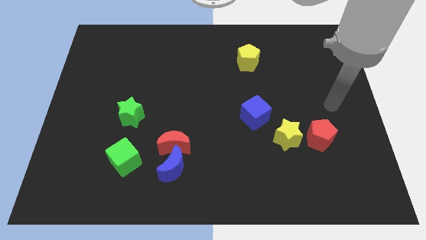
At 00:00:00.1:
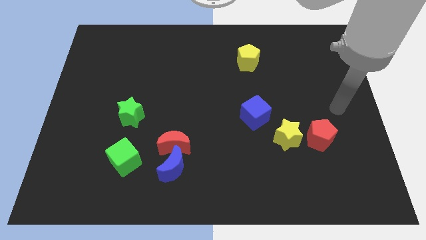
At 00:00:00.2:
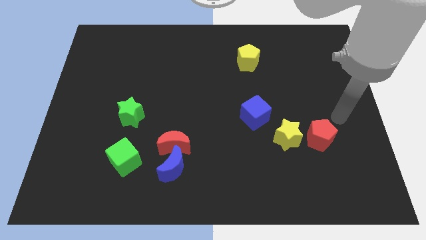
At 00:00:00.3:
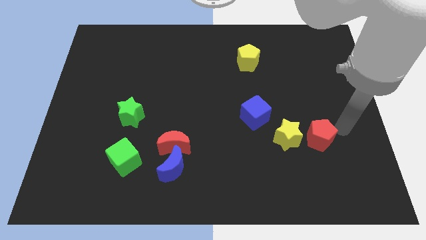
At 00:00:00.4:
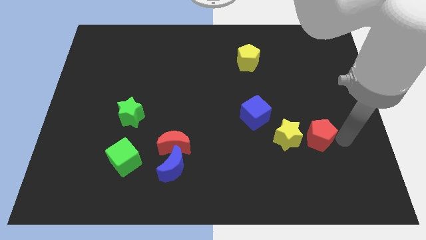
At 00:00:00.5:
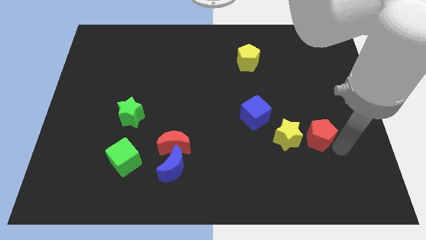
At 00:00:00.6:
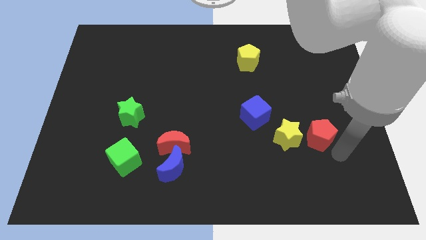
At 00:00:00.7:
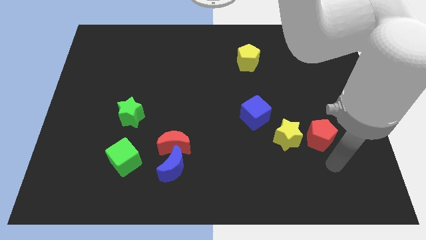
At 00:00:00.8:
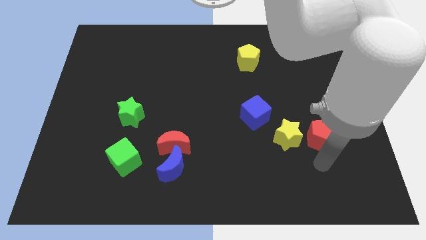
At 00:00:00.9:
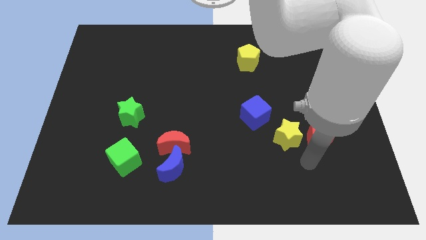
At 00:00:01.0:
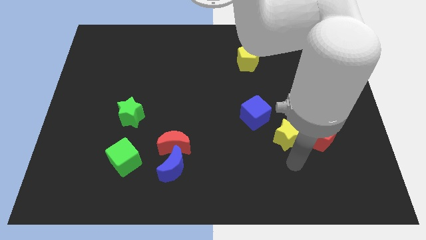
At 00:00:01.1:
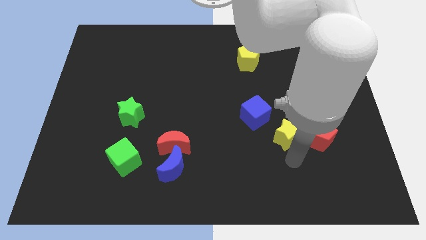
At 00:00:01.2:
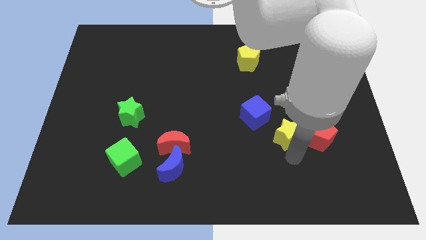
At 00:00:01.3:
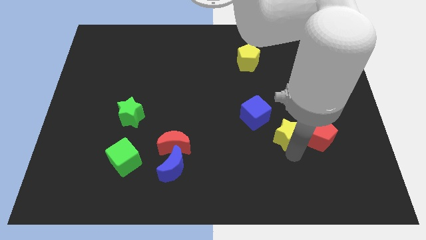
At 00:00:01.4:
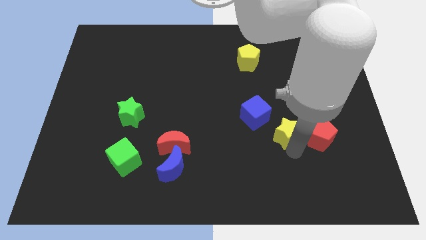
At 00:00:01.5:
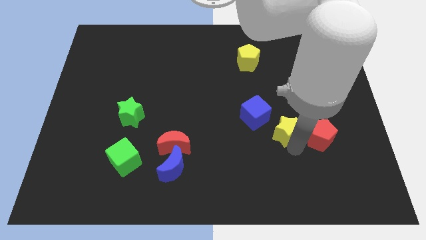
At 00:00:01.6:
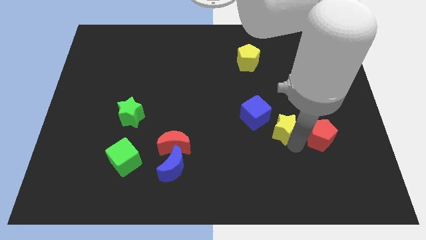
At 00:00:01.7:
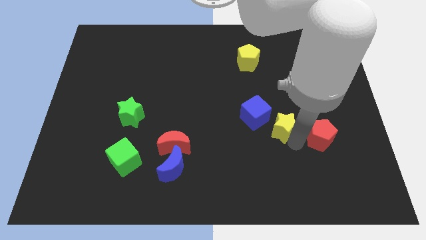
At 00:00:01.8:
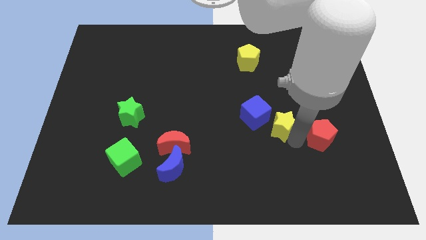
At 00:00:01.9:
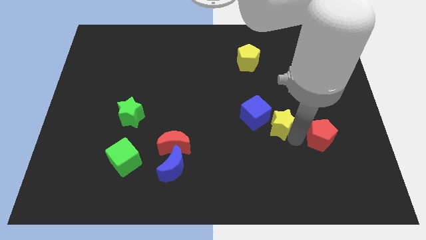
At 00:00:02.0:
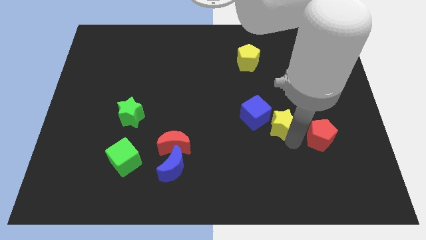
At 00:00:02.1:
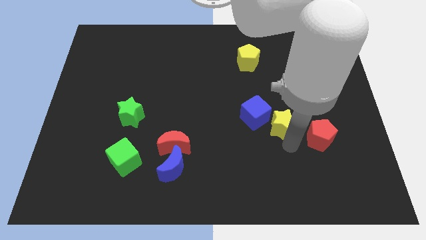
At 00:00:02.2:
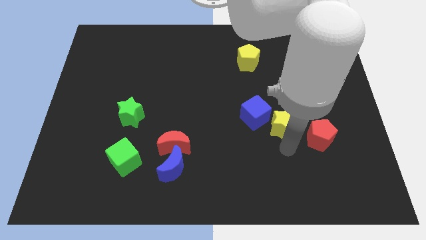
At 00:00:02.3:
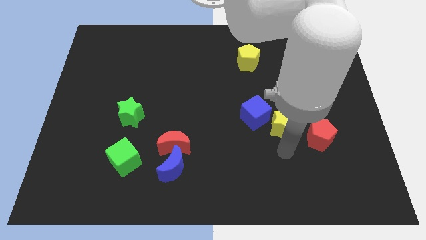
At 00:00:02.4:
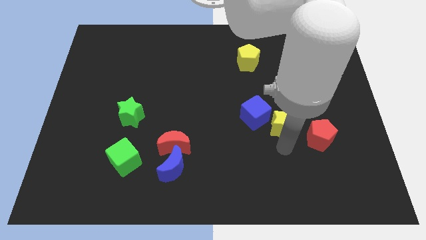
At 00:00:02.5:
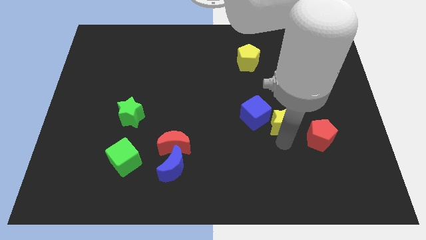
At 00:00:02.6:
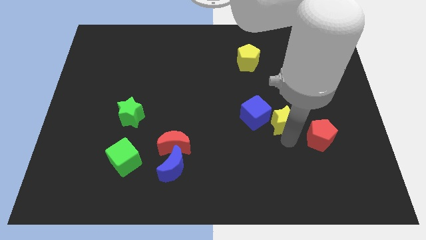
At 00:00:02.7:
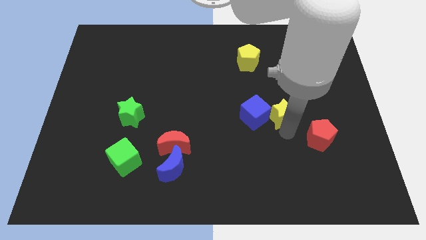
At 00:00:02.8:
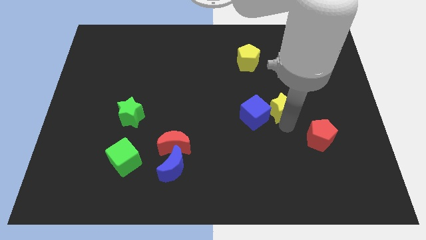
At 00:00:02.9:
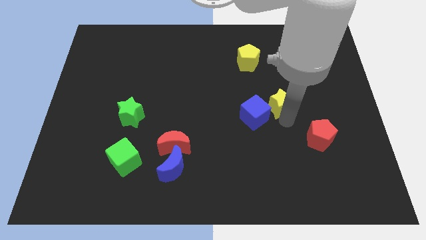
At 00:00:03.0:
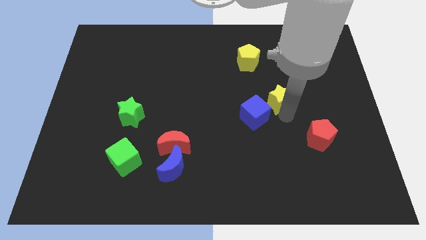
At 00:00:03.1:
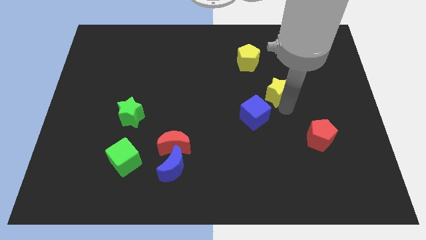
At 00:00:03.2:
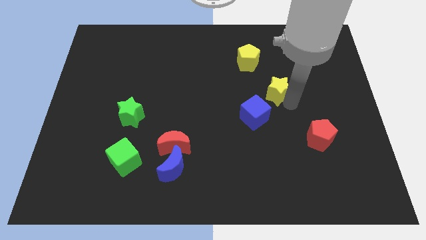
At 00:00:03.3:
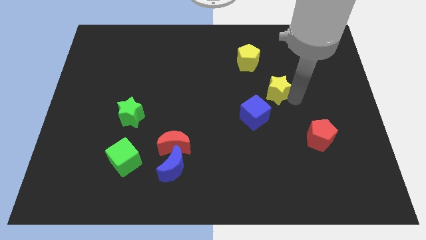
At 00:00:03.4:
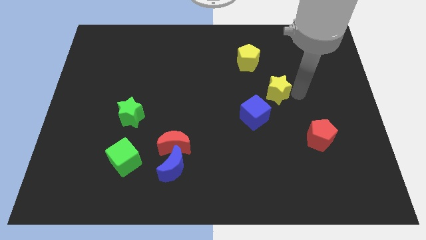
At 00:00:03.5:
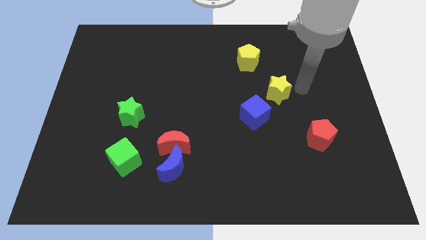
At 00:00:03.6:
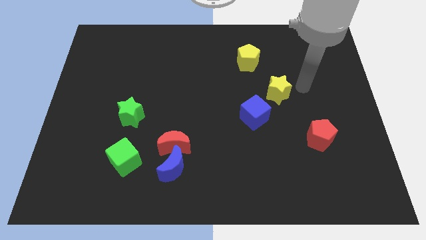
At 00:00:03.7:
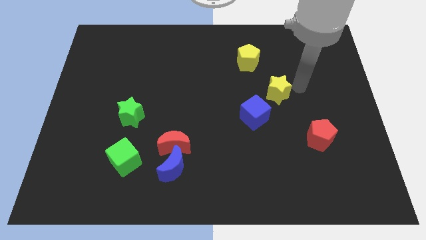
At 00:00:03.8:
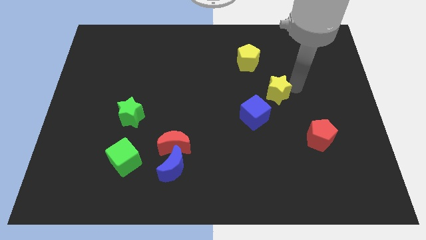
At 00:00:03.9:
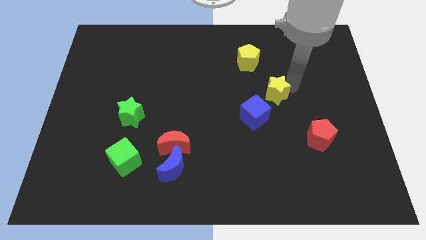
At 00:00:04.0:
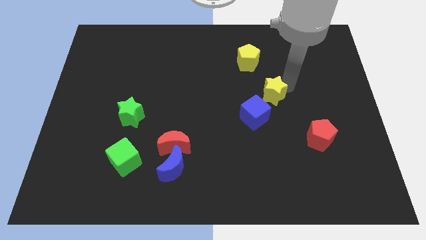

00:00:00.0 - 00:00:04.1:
slightly push the yellow star up and left

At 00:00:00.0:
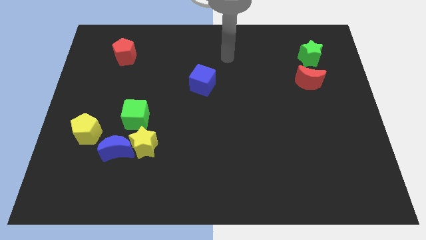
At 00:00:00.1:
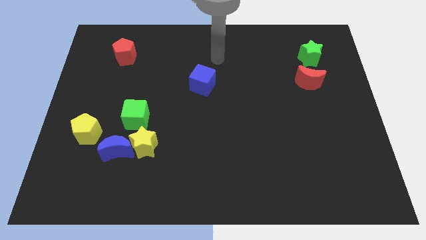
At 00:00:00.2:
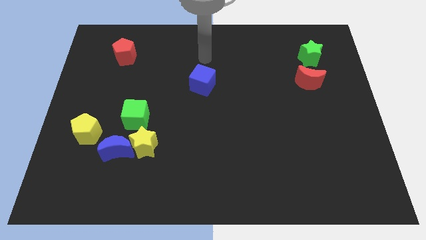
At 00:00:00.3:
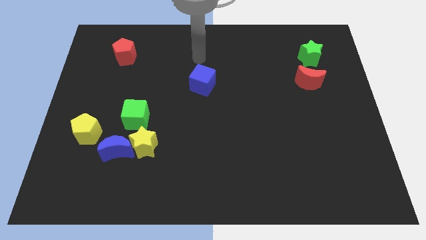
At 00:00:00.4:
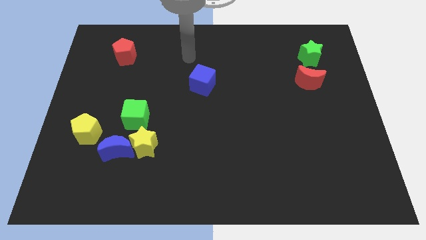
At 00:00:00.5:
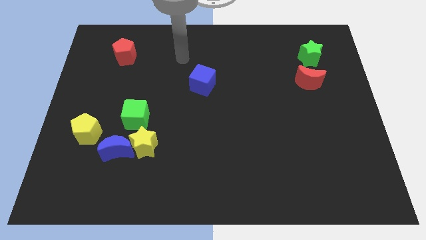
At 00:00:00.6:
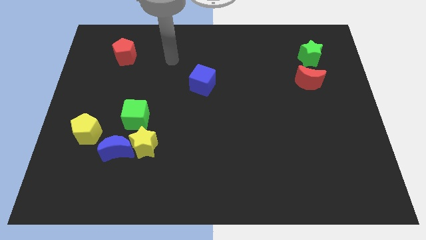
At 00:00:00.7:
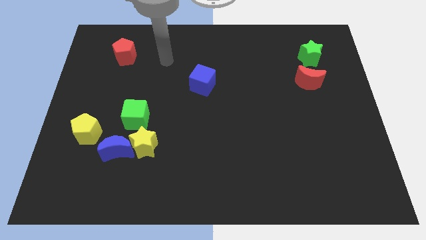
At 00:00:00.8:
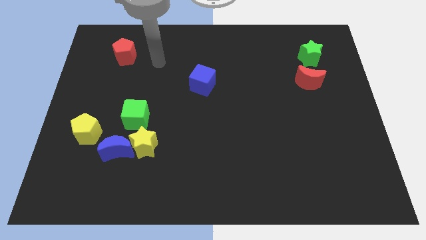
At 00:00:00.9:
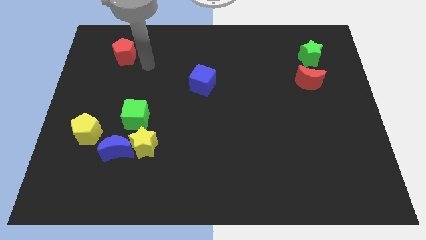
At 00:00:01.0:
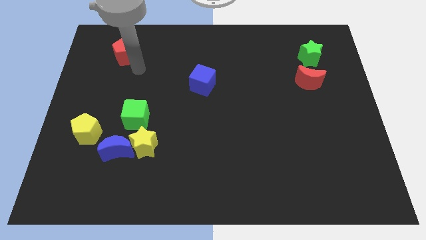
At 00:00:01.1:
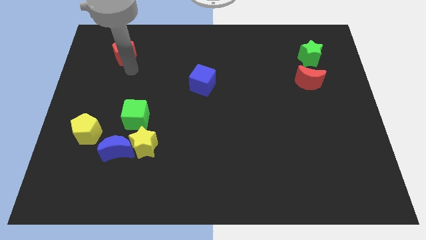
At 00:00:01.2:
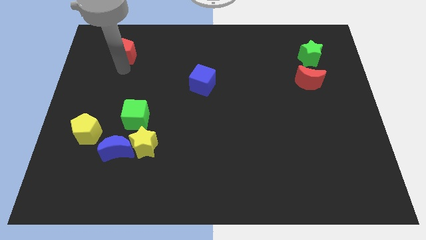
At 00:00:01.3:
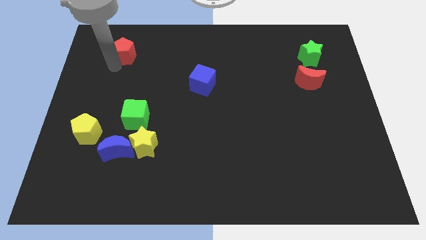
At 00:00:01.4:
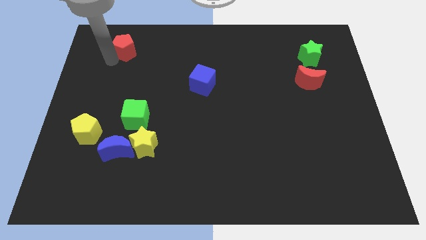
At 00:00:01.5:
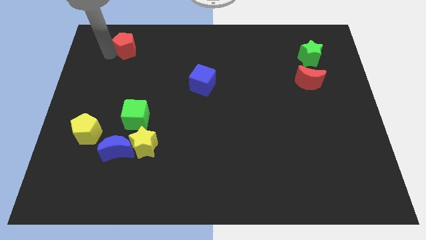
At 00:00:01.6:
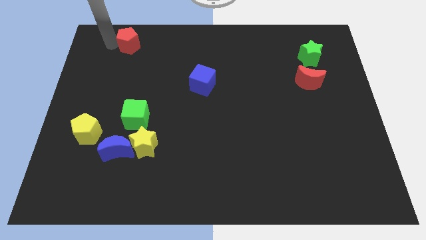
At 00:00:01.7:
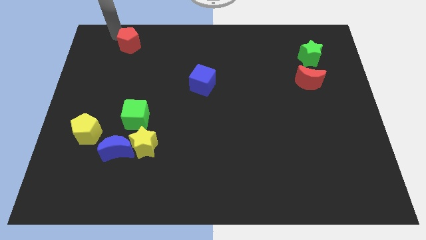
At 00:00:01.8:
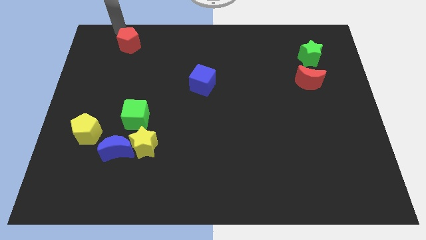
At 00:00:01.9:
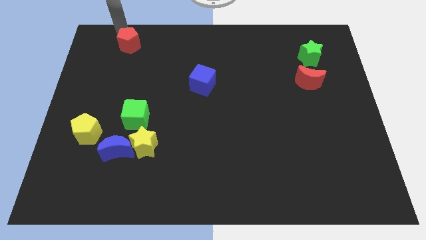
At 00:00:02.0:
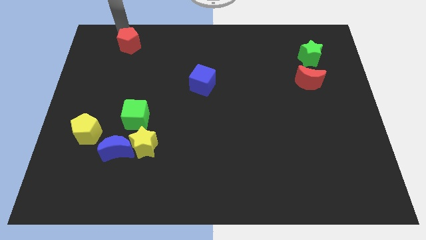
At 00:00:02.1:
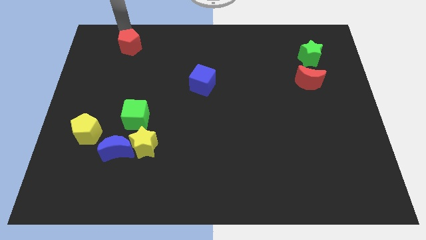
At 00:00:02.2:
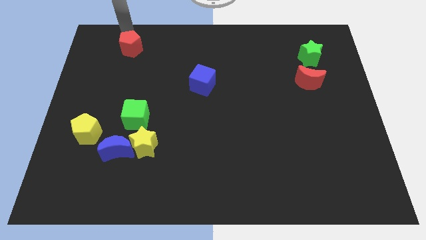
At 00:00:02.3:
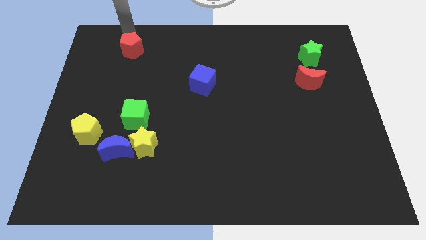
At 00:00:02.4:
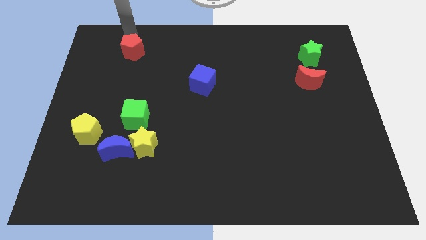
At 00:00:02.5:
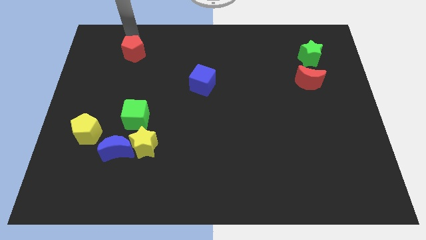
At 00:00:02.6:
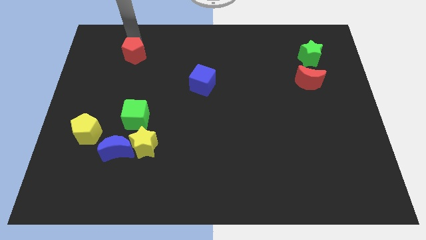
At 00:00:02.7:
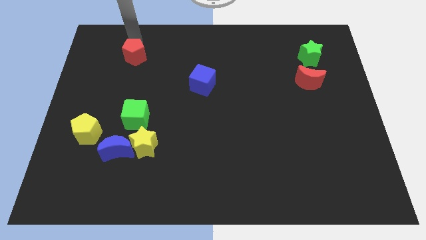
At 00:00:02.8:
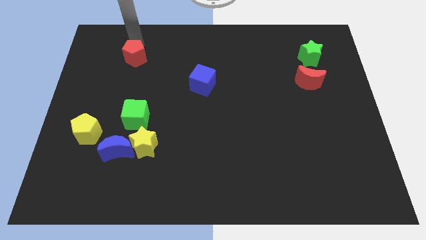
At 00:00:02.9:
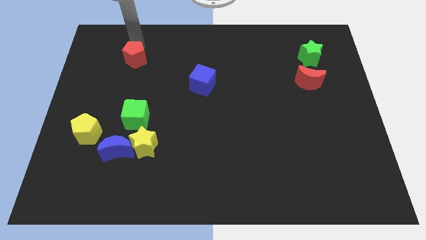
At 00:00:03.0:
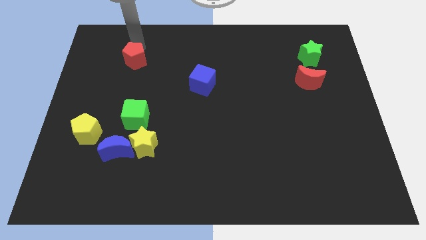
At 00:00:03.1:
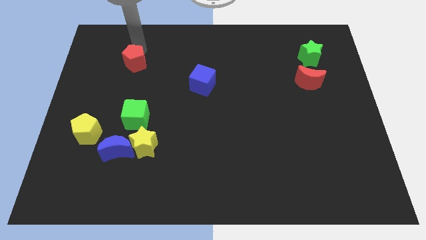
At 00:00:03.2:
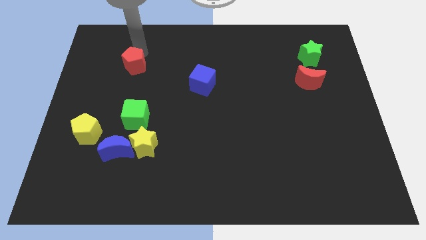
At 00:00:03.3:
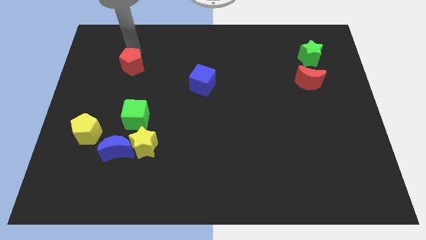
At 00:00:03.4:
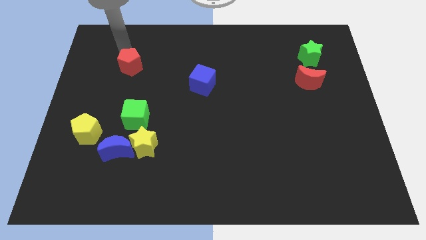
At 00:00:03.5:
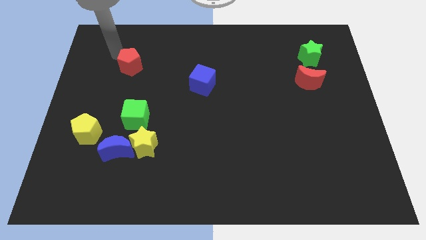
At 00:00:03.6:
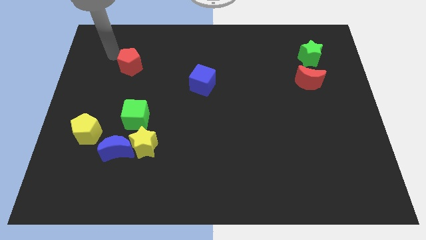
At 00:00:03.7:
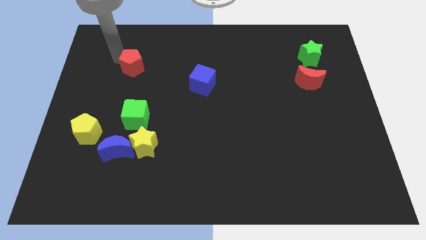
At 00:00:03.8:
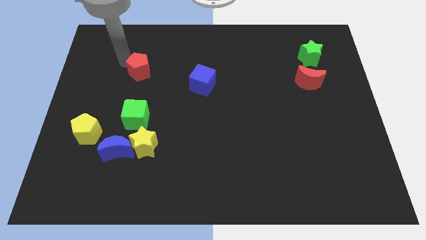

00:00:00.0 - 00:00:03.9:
move the red pentagon slightly downwards and right diagonally
